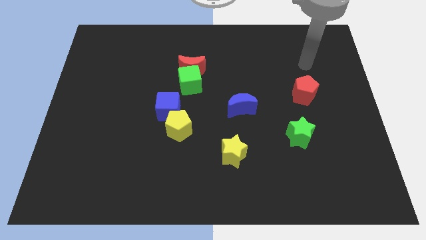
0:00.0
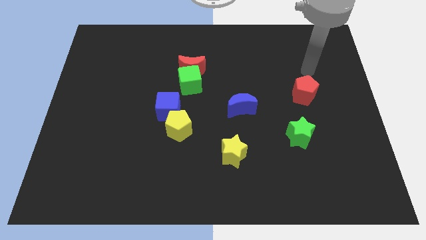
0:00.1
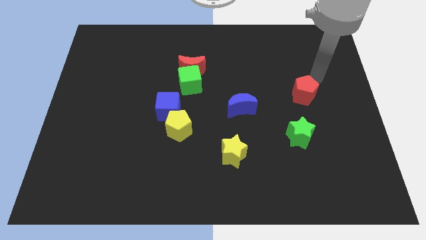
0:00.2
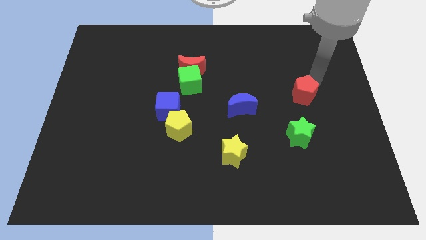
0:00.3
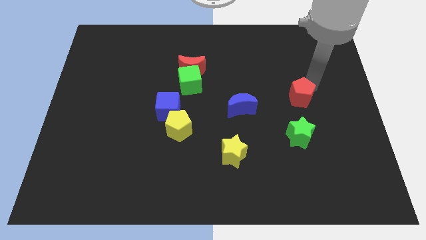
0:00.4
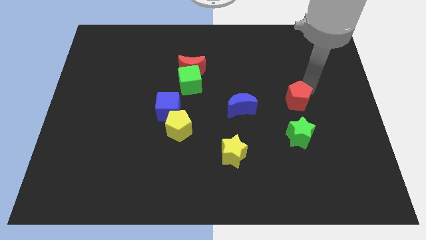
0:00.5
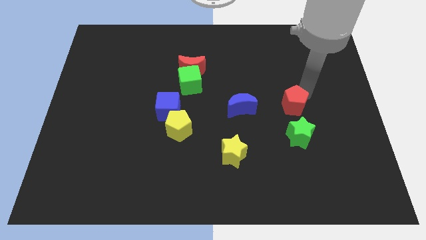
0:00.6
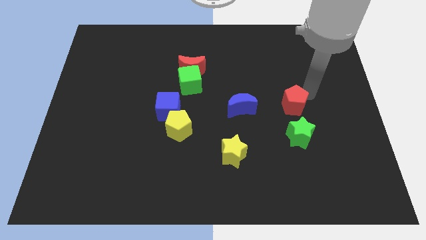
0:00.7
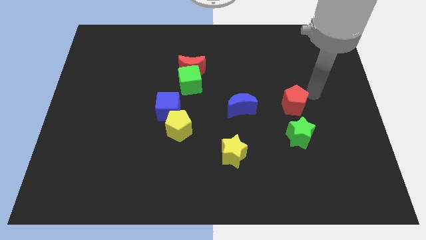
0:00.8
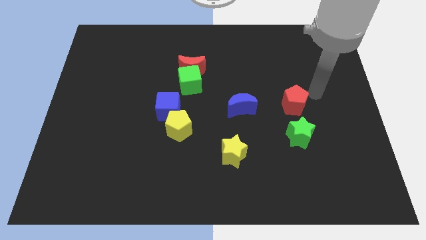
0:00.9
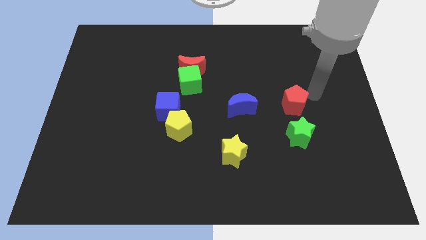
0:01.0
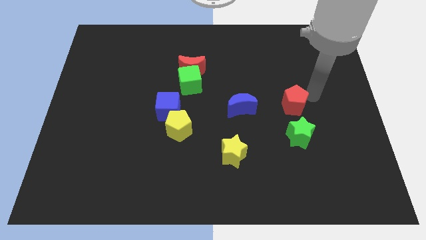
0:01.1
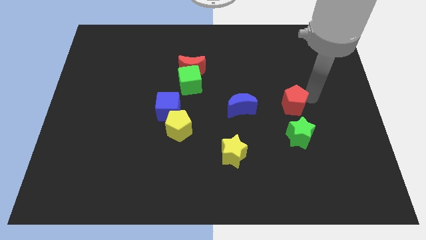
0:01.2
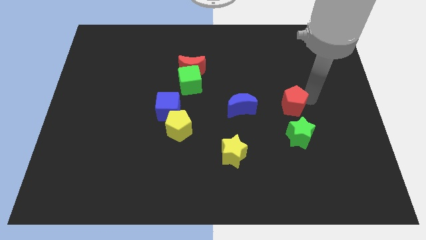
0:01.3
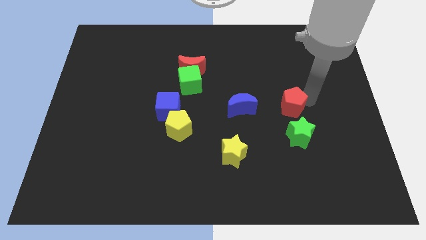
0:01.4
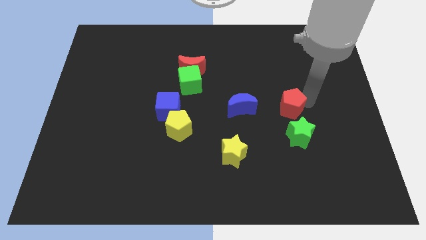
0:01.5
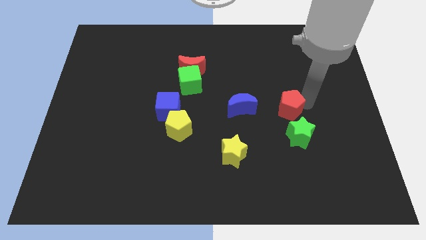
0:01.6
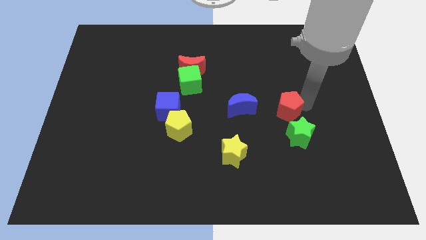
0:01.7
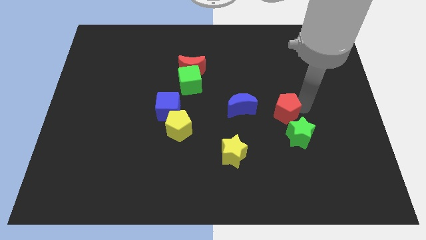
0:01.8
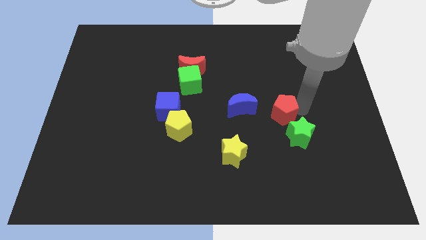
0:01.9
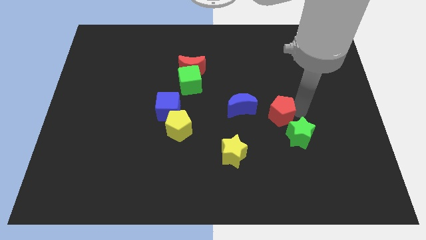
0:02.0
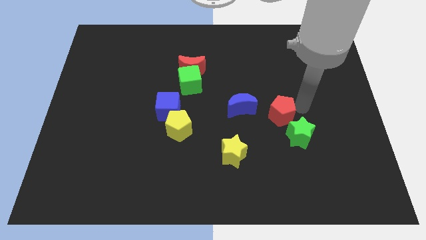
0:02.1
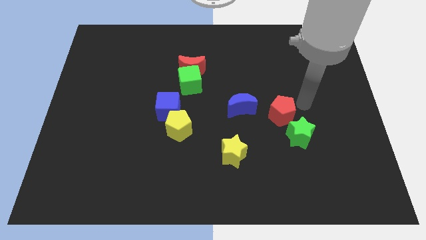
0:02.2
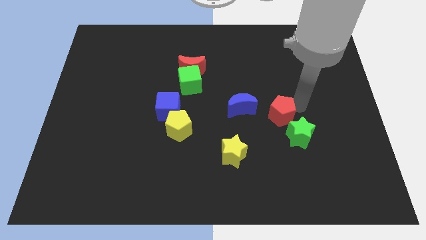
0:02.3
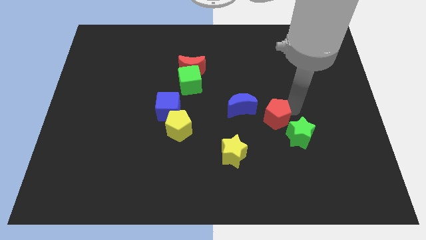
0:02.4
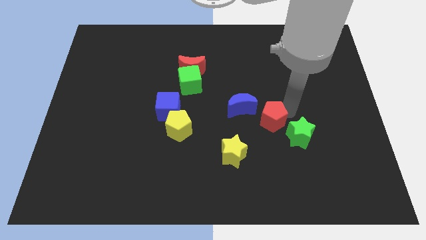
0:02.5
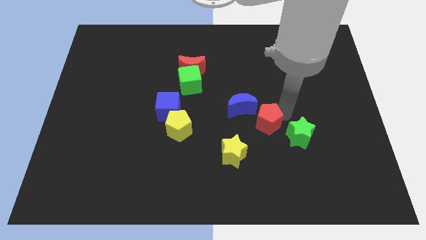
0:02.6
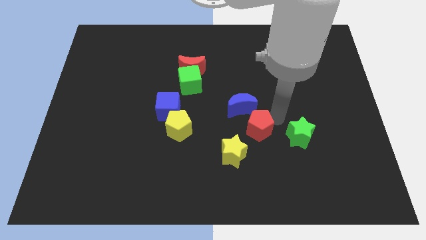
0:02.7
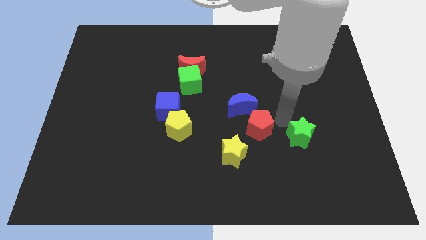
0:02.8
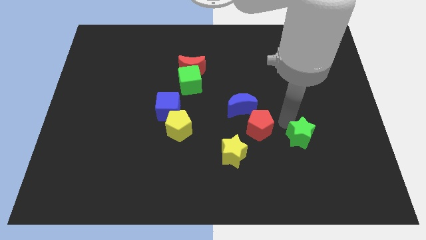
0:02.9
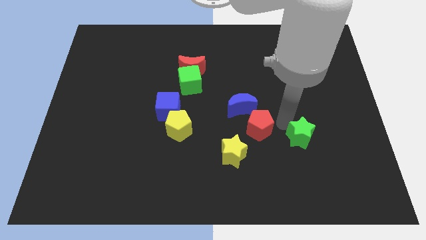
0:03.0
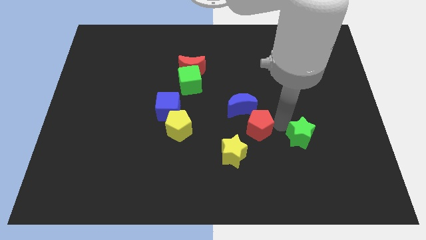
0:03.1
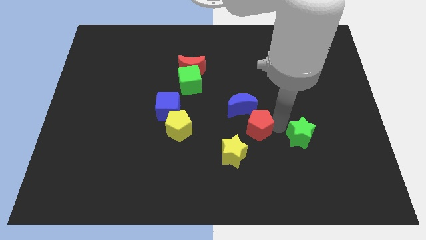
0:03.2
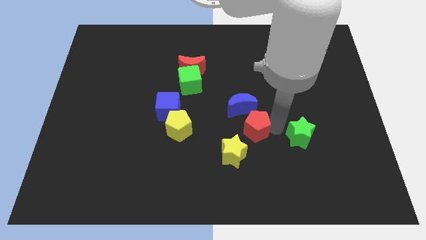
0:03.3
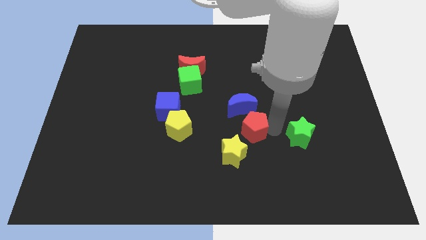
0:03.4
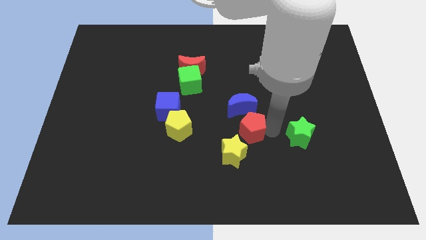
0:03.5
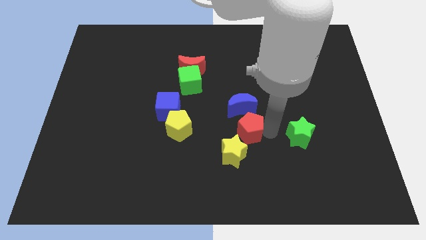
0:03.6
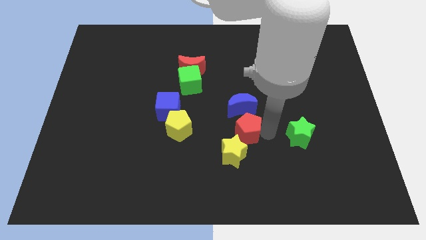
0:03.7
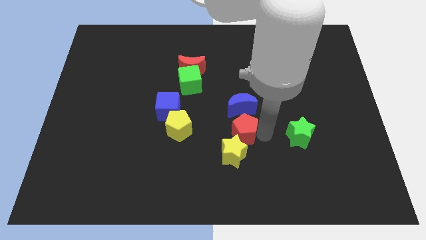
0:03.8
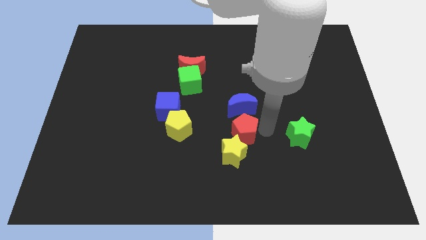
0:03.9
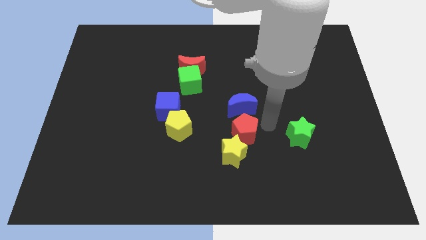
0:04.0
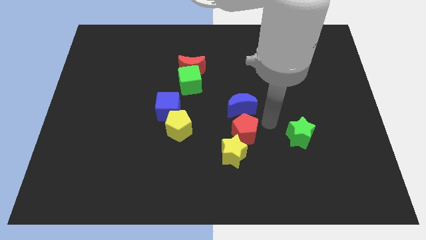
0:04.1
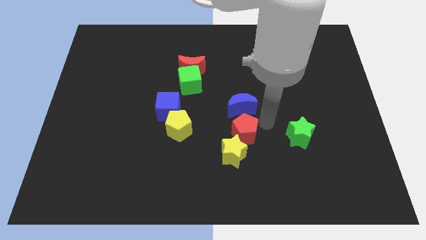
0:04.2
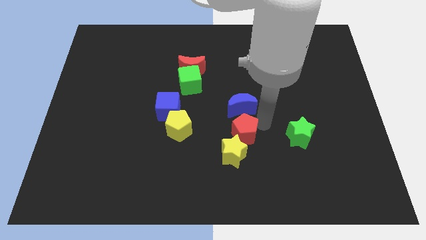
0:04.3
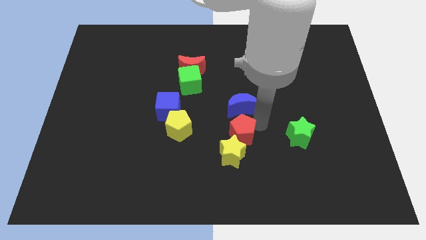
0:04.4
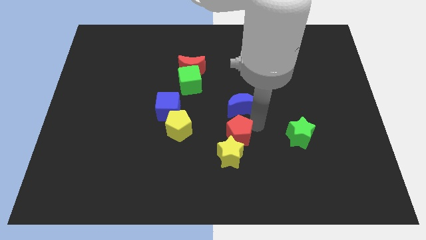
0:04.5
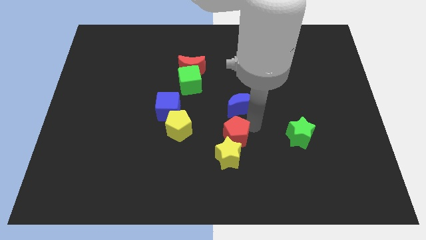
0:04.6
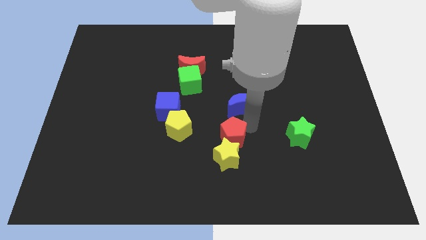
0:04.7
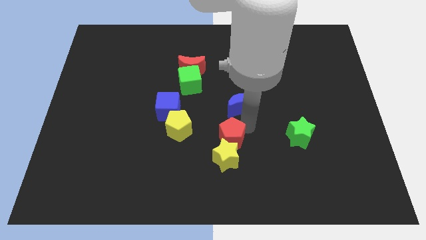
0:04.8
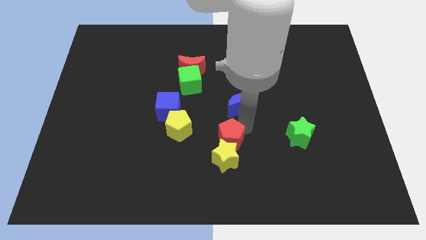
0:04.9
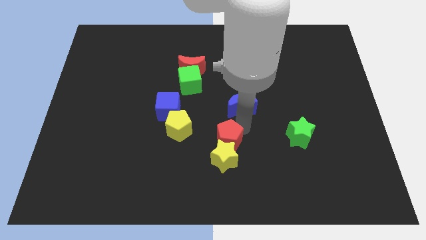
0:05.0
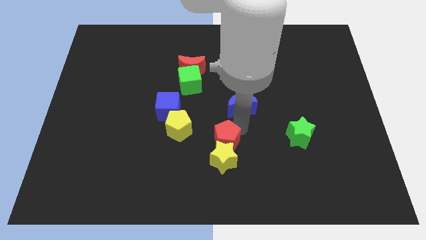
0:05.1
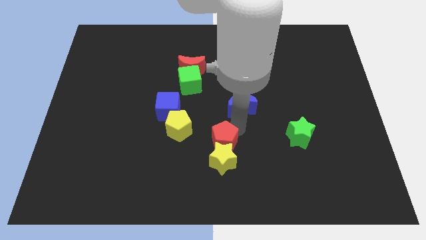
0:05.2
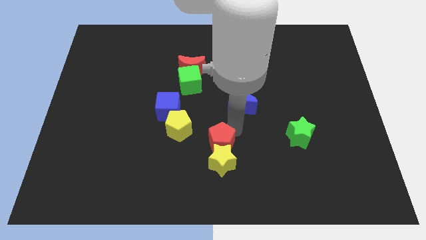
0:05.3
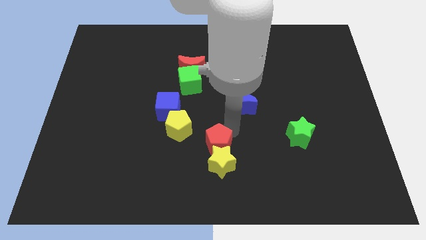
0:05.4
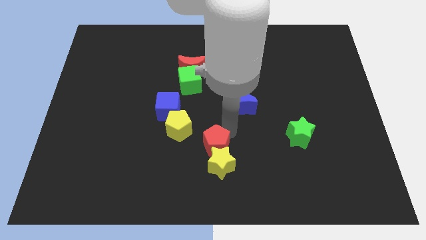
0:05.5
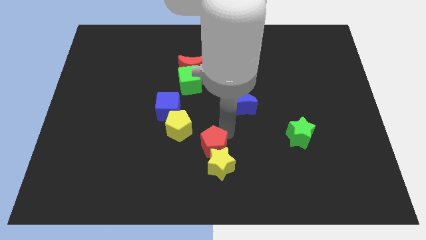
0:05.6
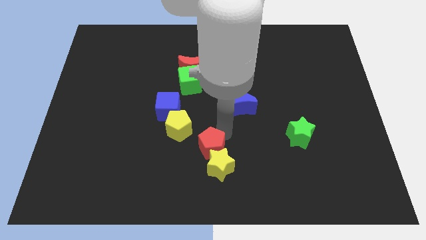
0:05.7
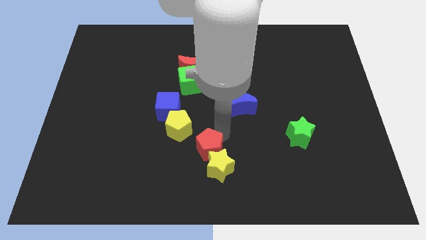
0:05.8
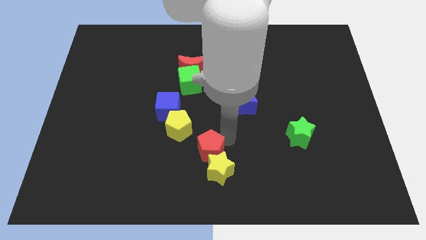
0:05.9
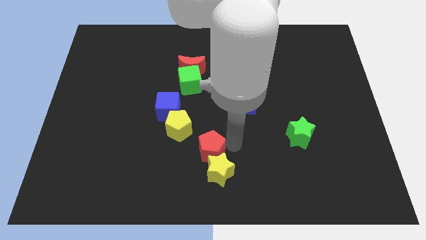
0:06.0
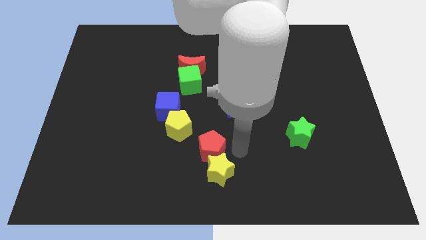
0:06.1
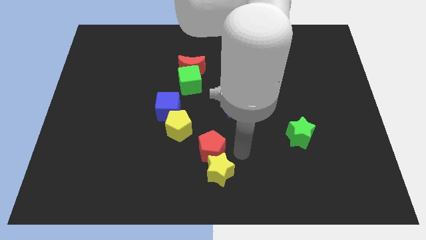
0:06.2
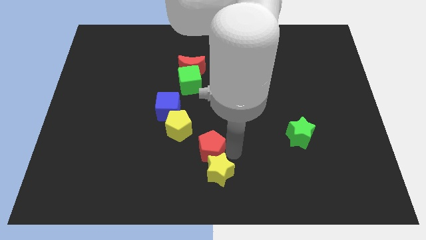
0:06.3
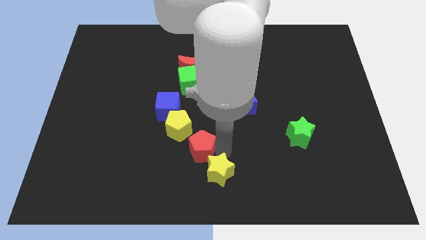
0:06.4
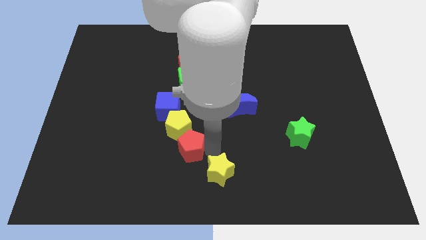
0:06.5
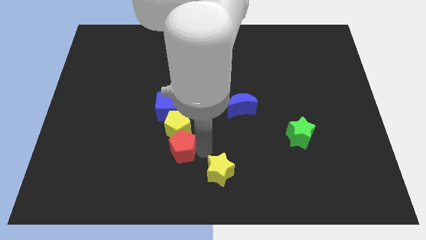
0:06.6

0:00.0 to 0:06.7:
move the red pentagon to the bottom of the blue cube

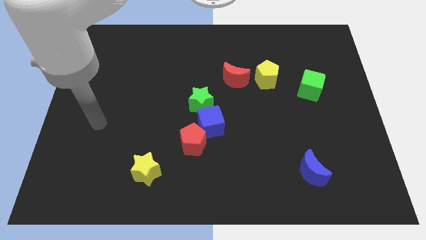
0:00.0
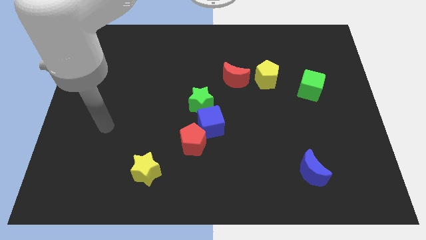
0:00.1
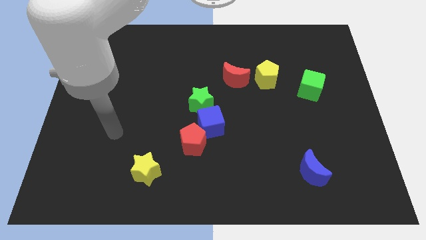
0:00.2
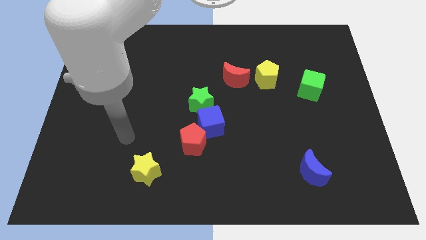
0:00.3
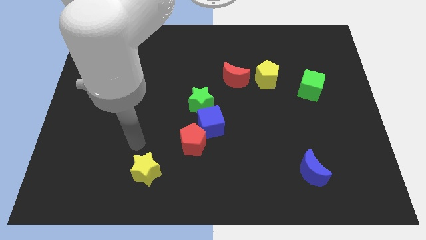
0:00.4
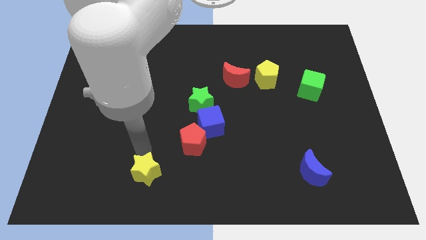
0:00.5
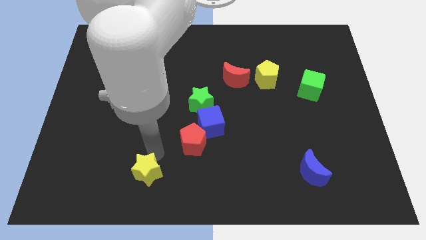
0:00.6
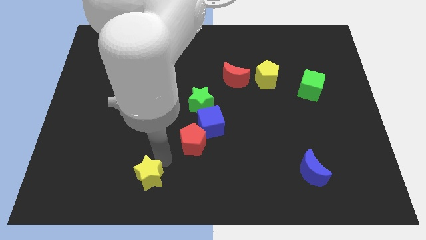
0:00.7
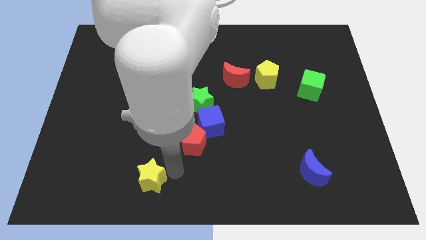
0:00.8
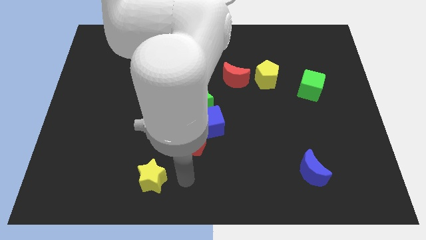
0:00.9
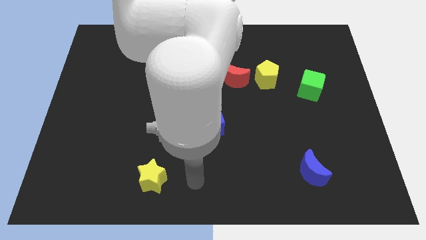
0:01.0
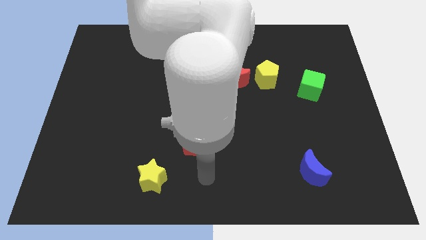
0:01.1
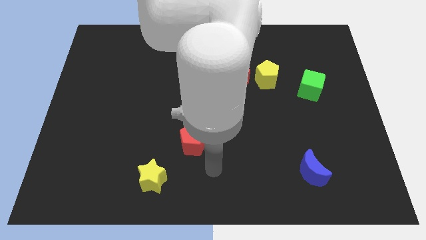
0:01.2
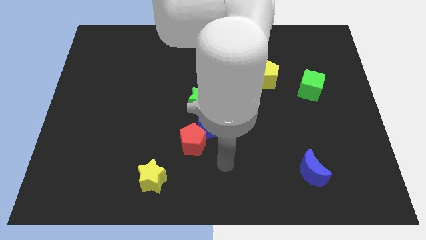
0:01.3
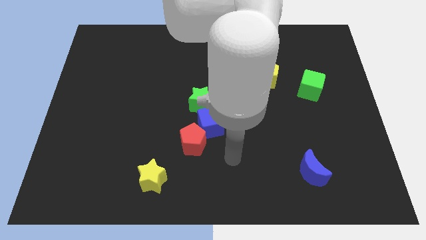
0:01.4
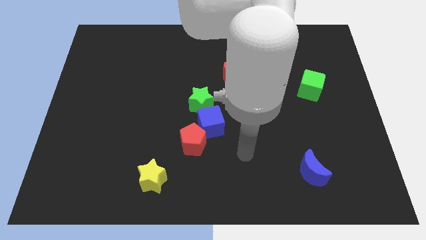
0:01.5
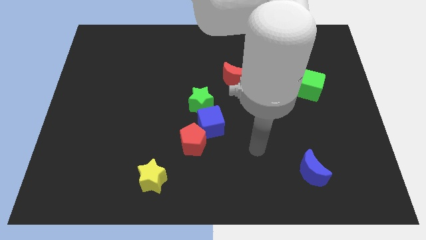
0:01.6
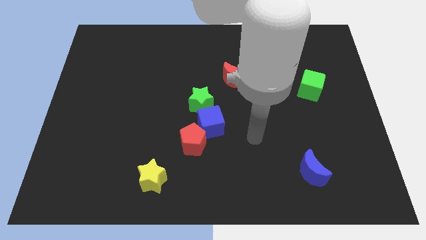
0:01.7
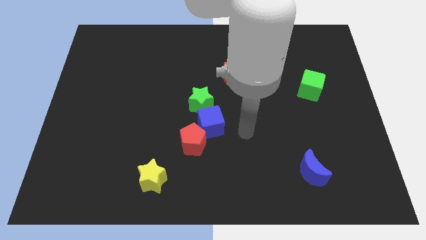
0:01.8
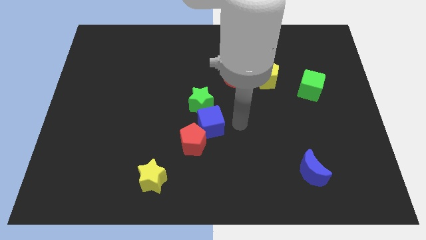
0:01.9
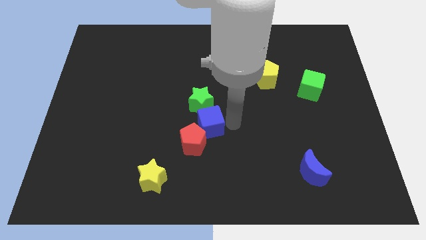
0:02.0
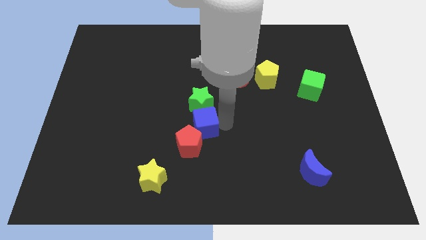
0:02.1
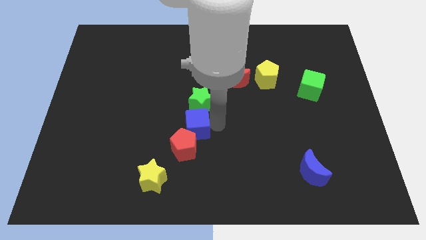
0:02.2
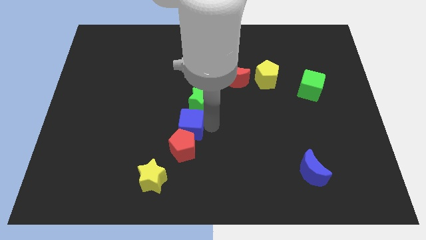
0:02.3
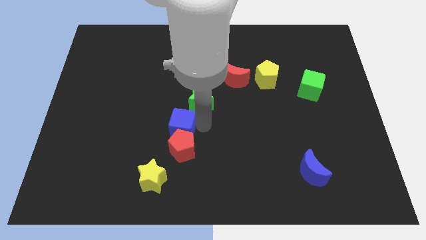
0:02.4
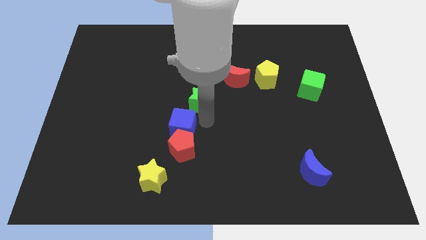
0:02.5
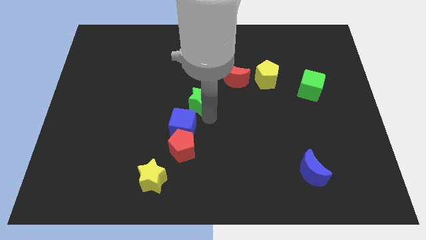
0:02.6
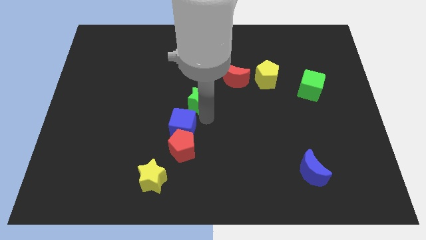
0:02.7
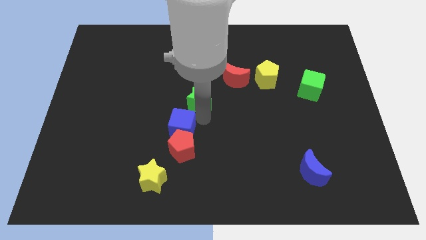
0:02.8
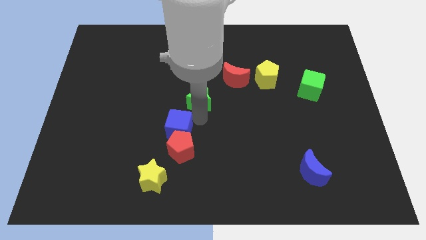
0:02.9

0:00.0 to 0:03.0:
push the blue cube to the top of the yellow star
